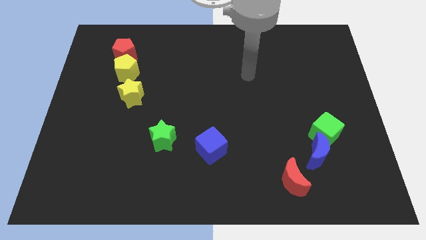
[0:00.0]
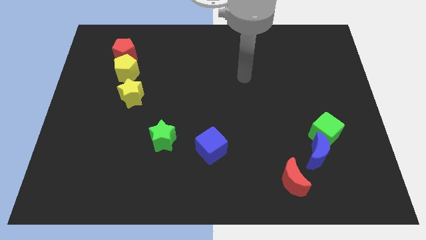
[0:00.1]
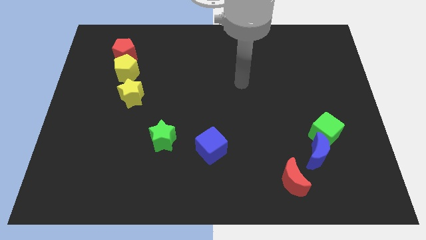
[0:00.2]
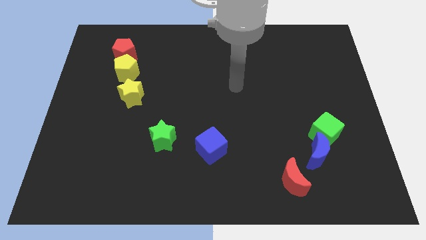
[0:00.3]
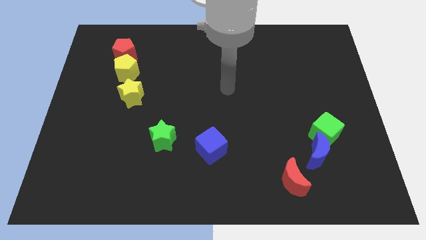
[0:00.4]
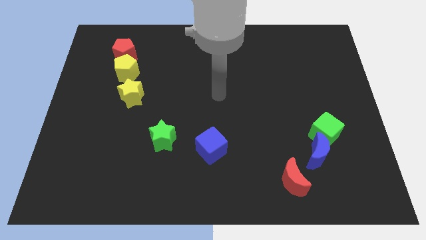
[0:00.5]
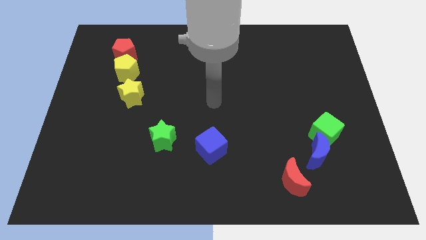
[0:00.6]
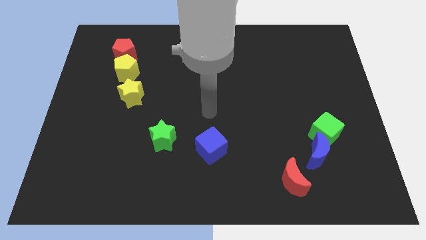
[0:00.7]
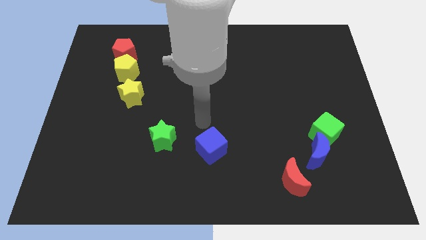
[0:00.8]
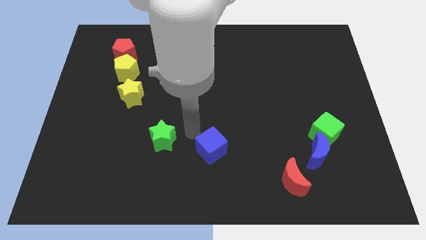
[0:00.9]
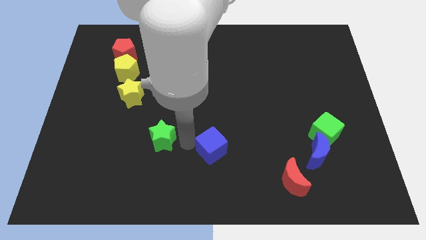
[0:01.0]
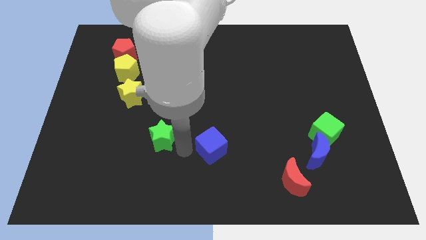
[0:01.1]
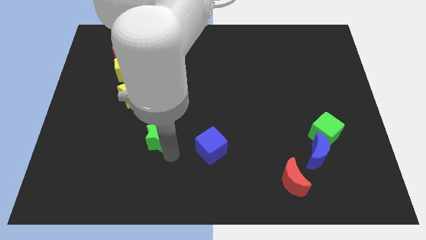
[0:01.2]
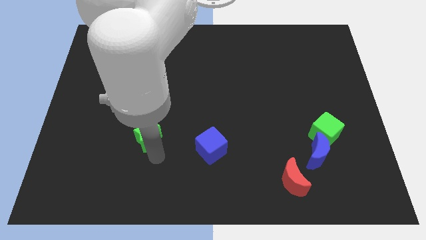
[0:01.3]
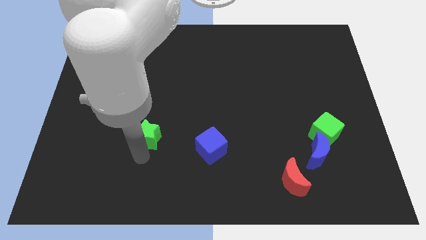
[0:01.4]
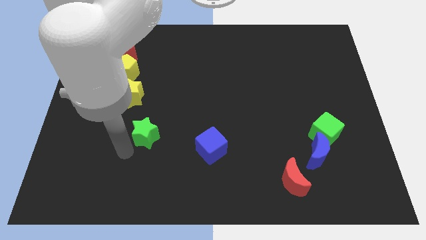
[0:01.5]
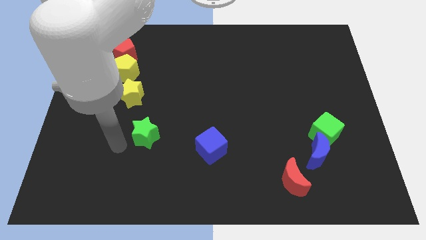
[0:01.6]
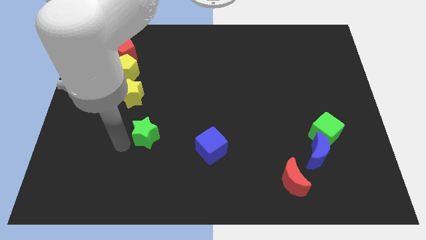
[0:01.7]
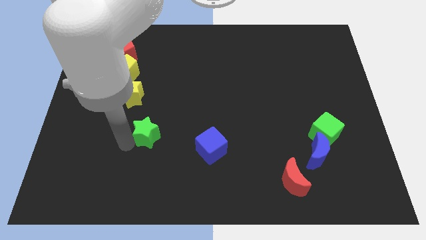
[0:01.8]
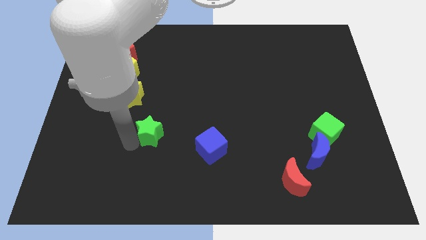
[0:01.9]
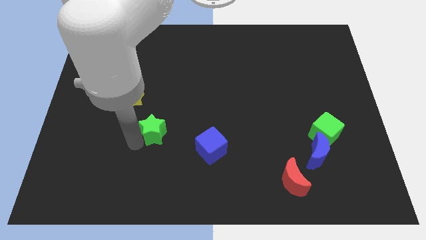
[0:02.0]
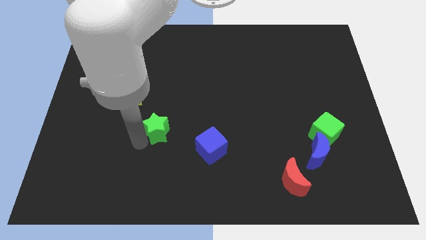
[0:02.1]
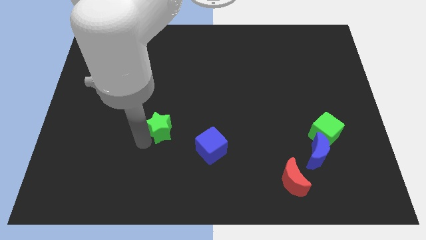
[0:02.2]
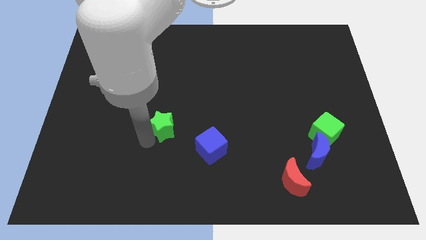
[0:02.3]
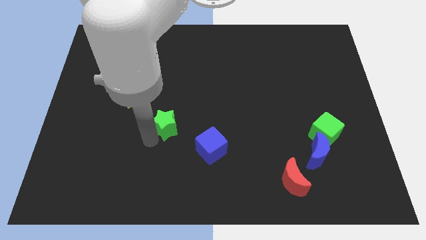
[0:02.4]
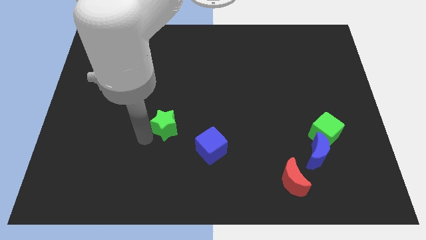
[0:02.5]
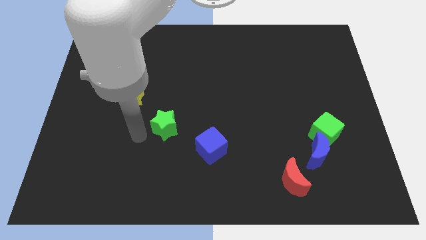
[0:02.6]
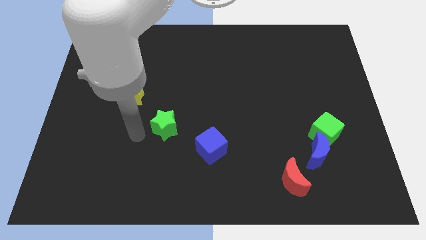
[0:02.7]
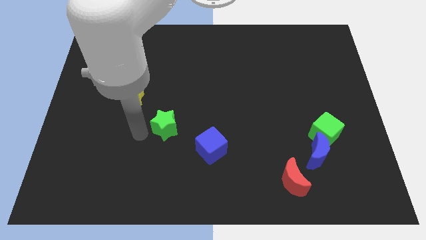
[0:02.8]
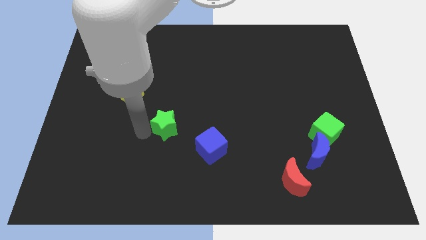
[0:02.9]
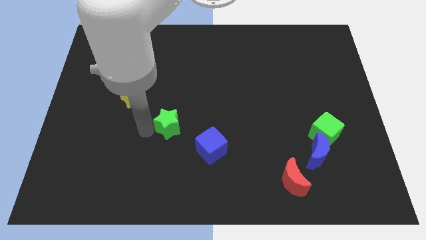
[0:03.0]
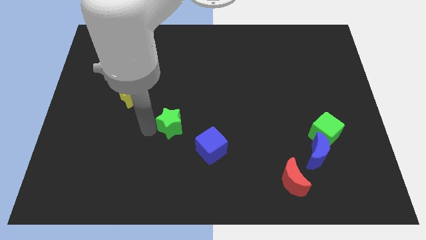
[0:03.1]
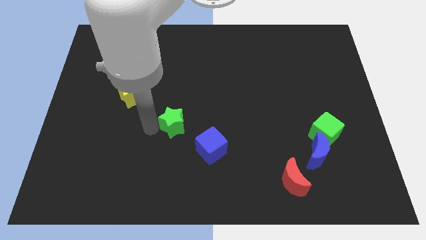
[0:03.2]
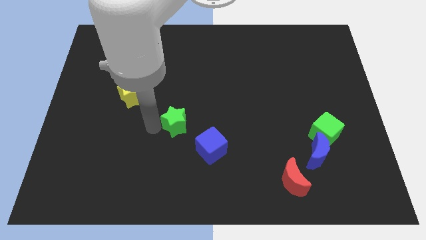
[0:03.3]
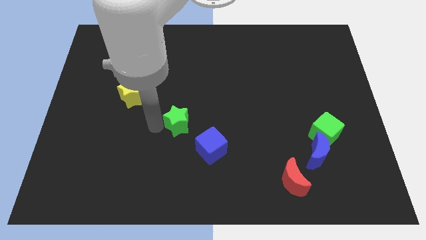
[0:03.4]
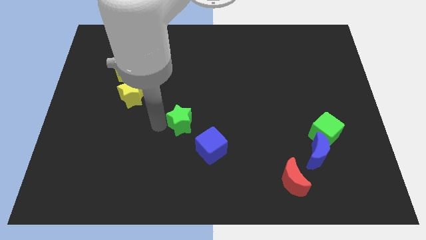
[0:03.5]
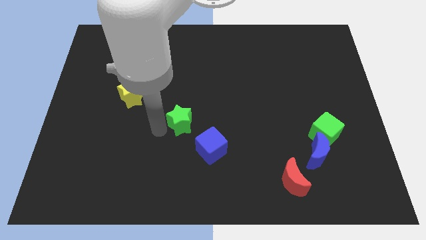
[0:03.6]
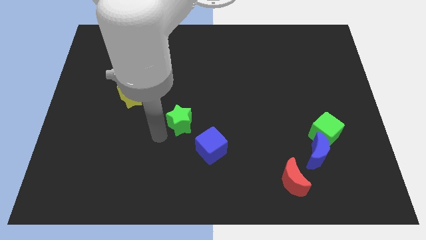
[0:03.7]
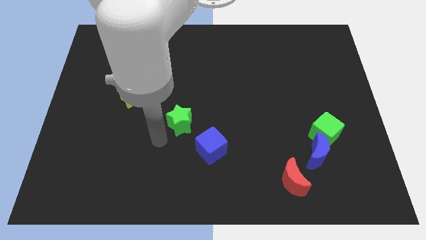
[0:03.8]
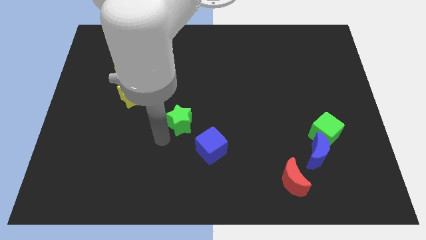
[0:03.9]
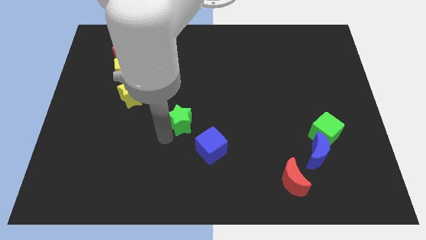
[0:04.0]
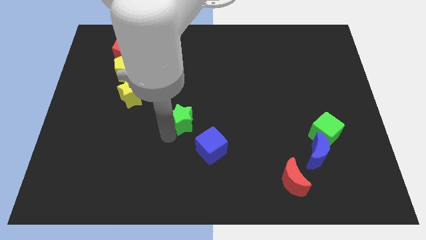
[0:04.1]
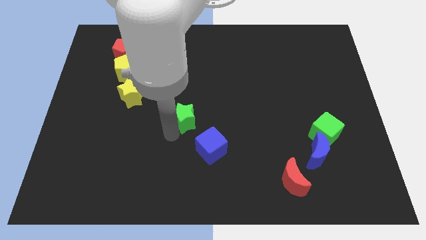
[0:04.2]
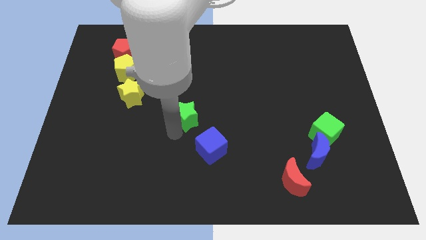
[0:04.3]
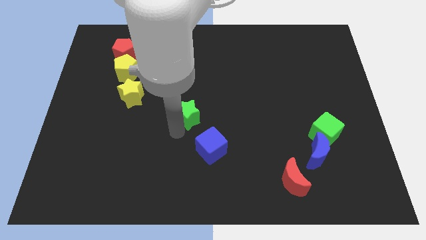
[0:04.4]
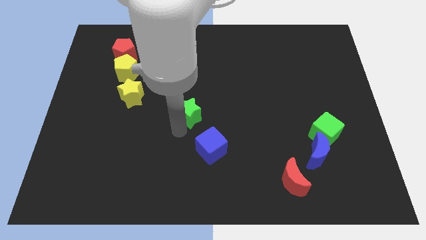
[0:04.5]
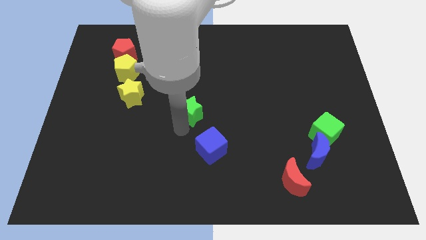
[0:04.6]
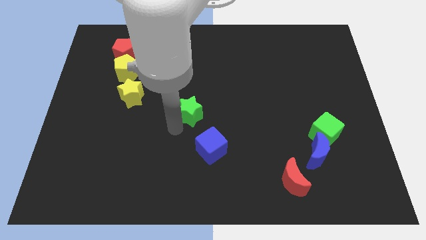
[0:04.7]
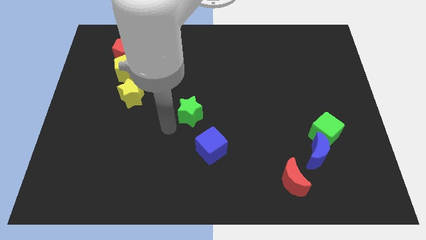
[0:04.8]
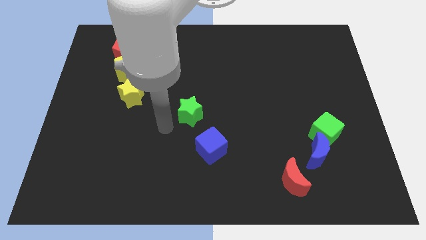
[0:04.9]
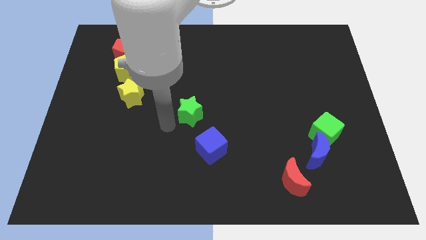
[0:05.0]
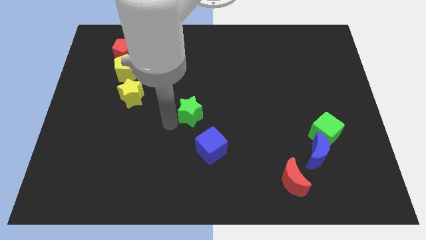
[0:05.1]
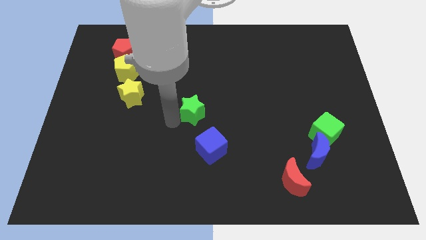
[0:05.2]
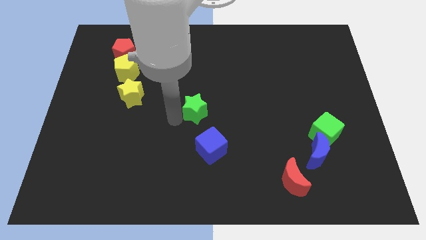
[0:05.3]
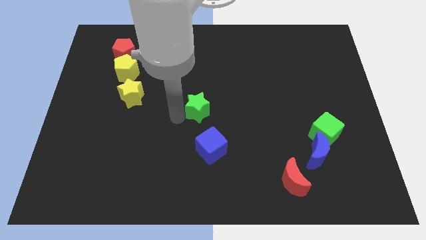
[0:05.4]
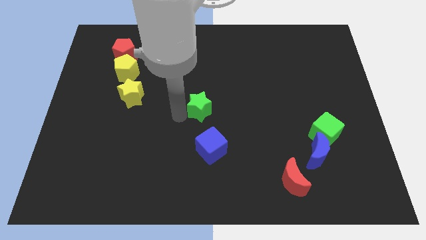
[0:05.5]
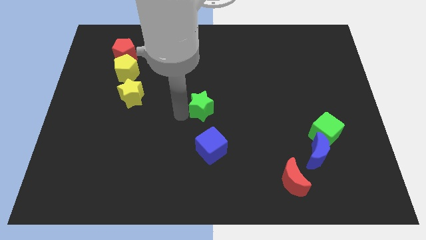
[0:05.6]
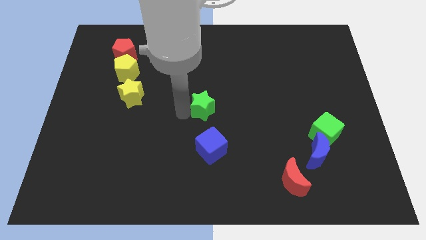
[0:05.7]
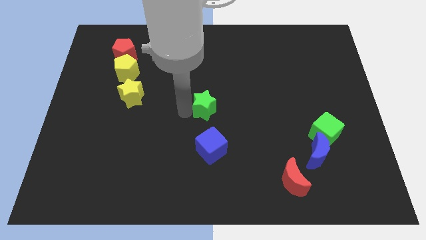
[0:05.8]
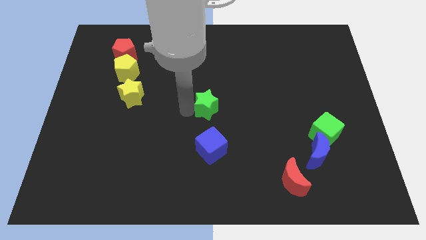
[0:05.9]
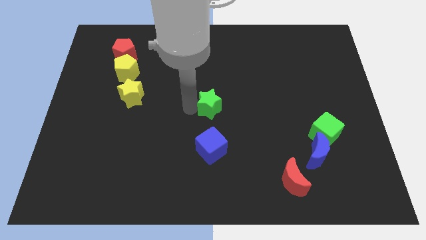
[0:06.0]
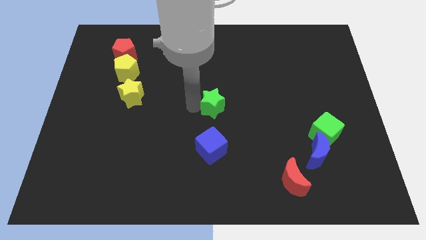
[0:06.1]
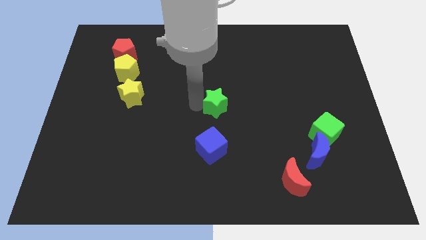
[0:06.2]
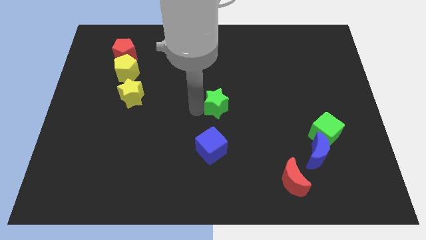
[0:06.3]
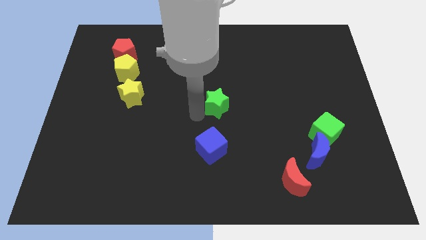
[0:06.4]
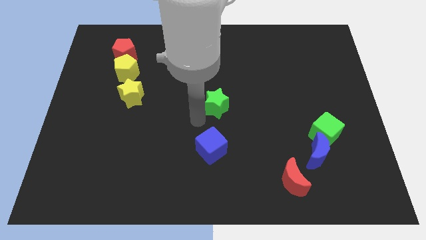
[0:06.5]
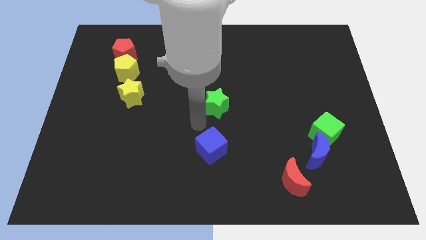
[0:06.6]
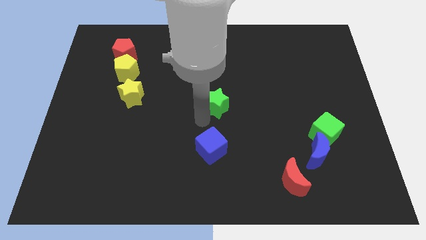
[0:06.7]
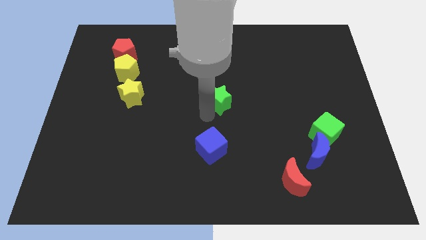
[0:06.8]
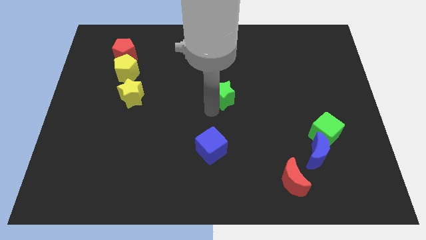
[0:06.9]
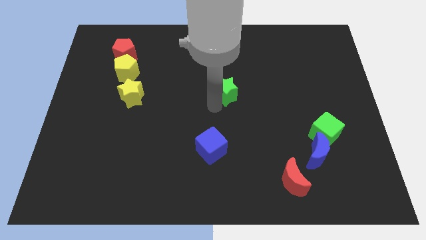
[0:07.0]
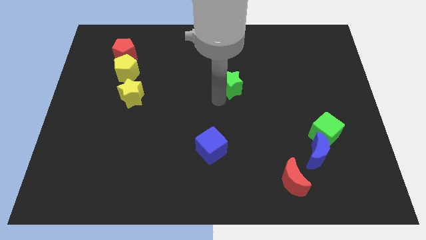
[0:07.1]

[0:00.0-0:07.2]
slide the green star diagonally upwards and right

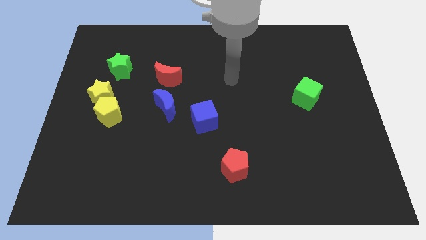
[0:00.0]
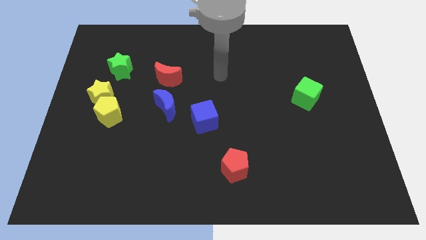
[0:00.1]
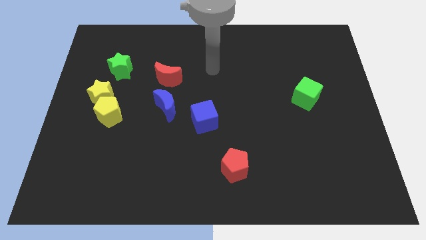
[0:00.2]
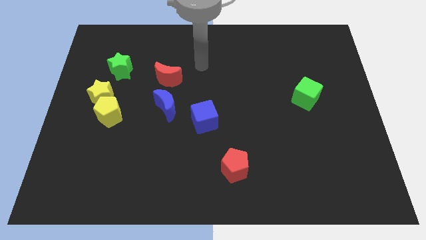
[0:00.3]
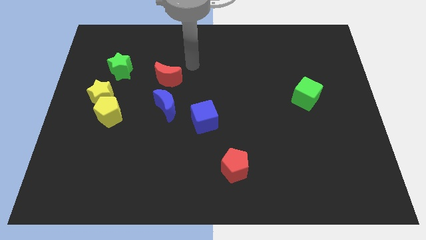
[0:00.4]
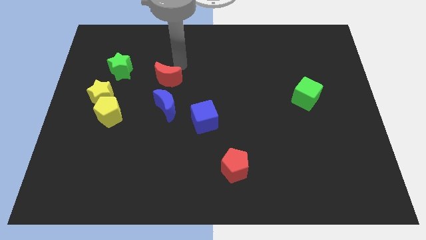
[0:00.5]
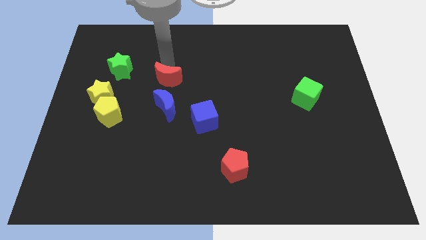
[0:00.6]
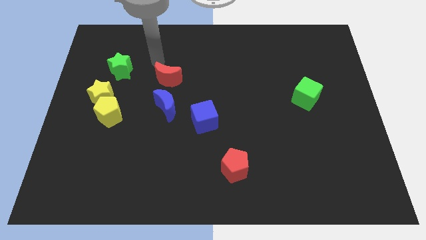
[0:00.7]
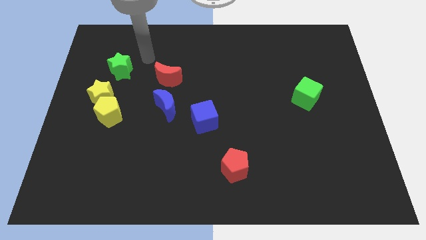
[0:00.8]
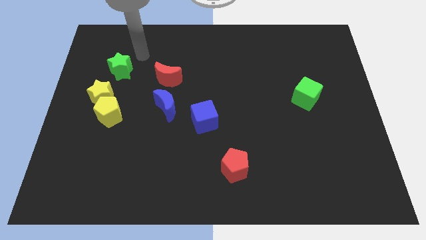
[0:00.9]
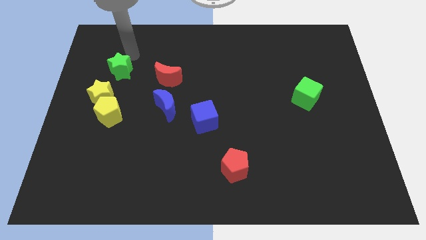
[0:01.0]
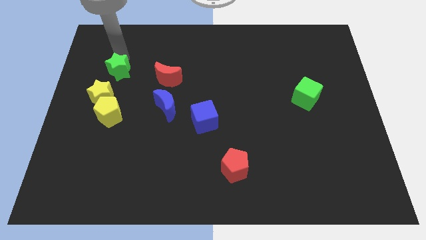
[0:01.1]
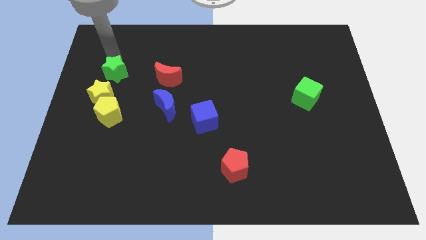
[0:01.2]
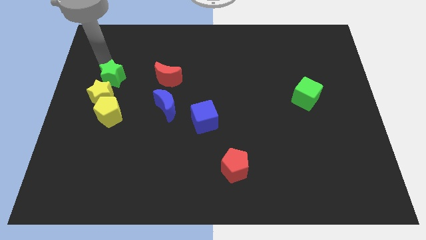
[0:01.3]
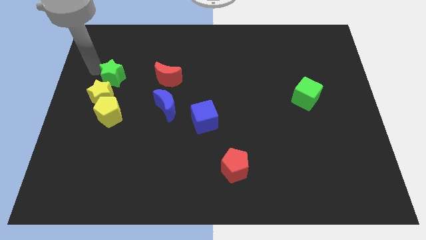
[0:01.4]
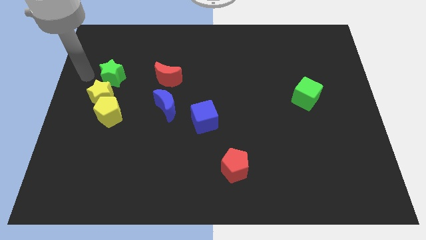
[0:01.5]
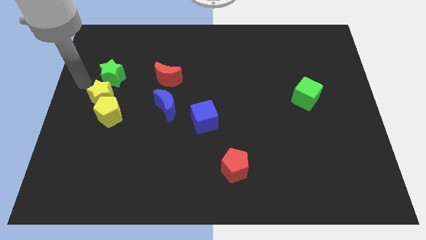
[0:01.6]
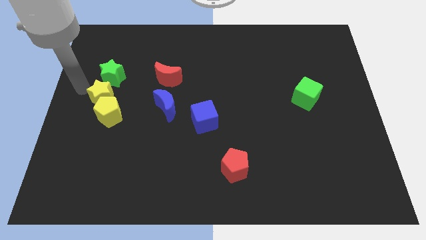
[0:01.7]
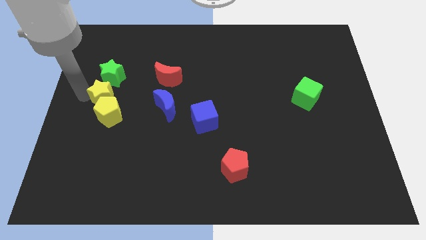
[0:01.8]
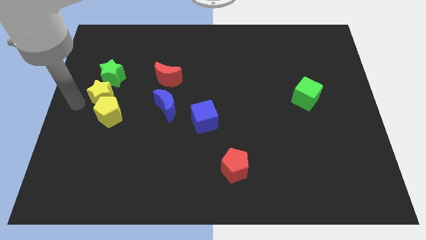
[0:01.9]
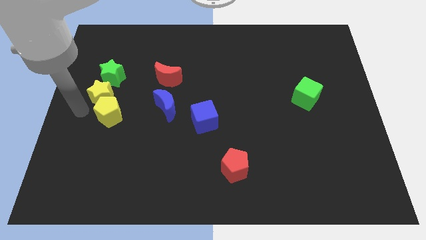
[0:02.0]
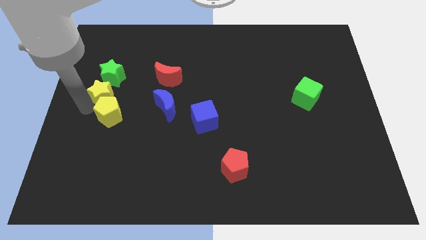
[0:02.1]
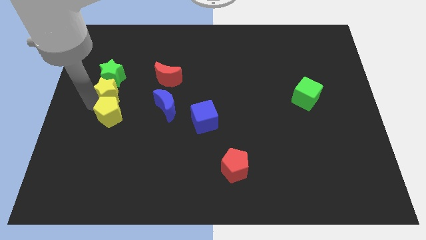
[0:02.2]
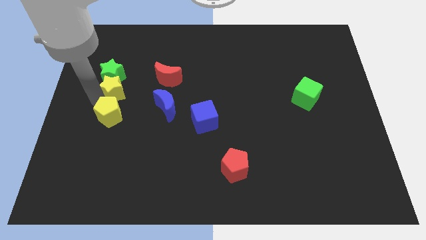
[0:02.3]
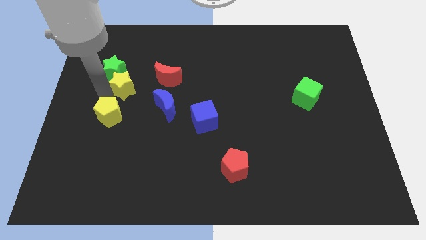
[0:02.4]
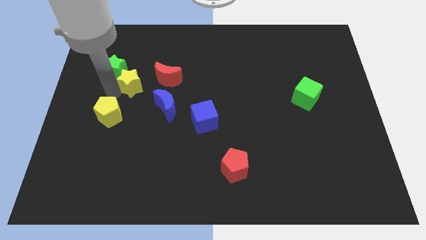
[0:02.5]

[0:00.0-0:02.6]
push the yellow star up and right diagonally a bit
